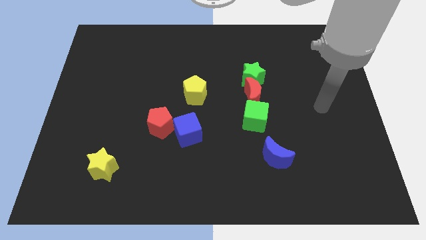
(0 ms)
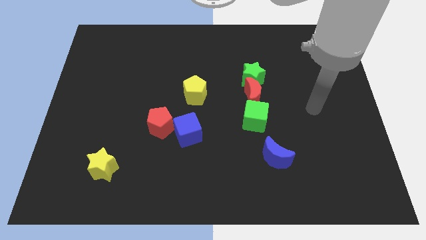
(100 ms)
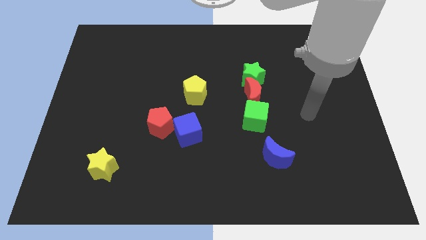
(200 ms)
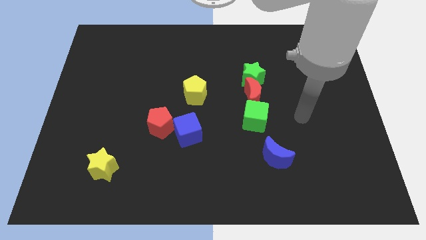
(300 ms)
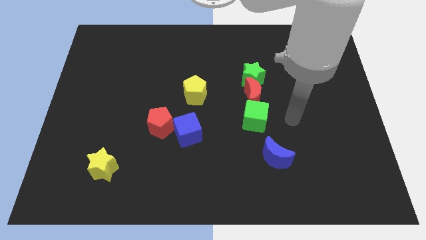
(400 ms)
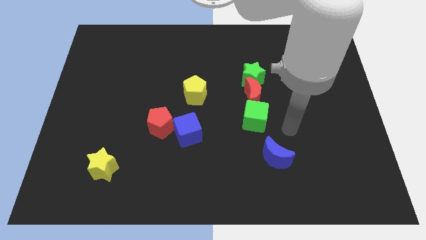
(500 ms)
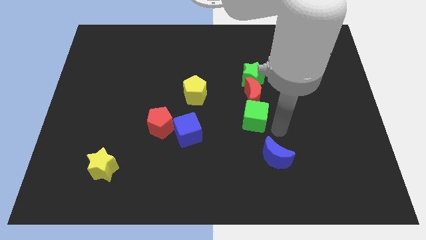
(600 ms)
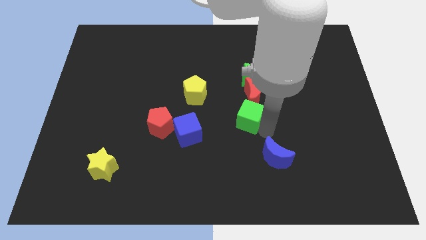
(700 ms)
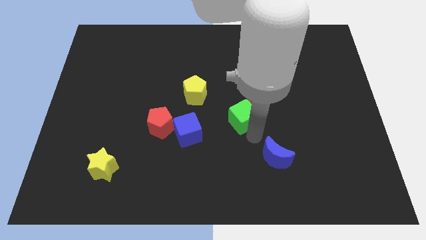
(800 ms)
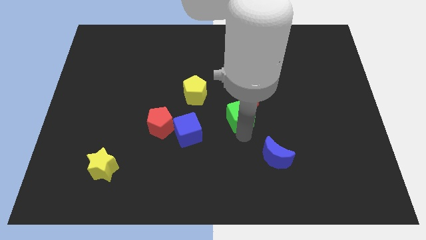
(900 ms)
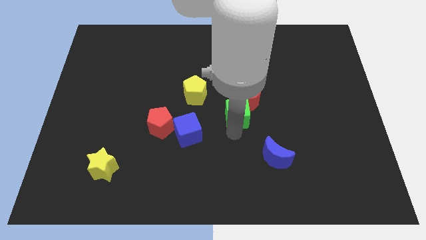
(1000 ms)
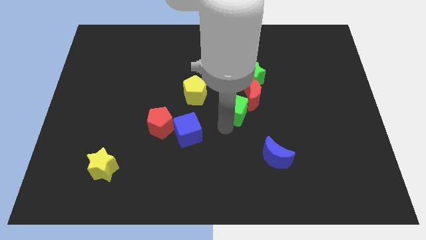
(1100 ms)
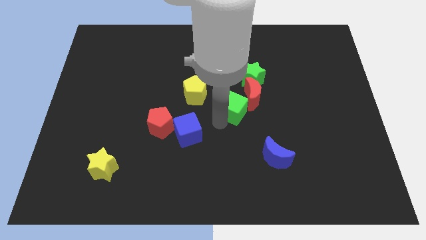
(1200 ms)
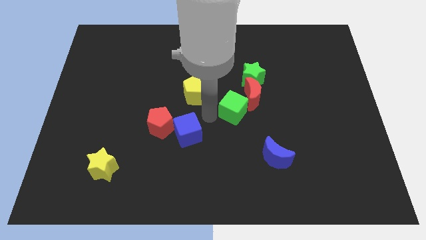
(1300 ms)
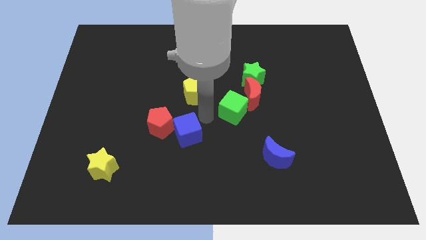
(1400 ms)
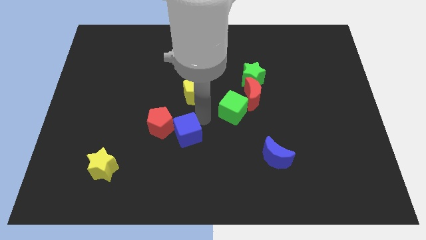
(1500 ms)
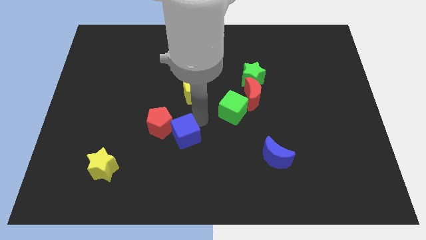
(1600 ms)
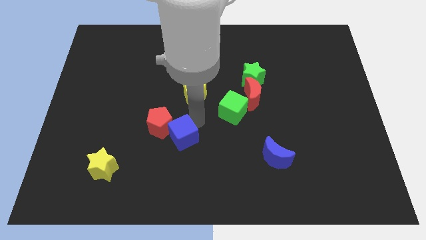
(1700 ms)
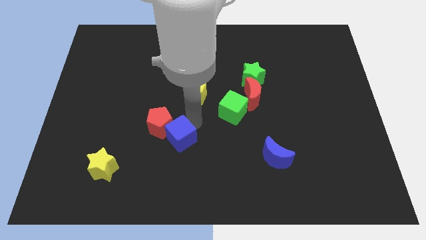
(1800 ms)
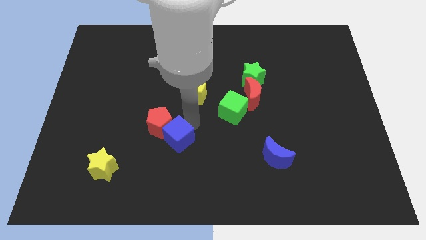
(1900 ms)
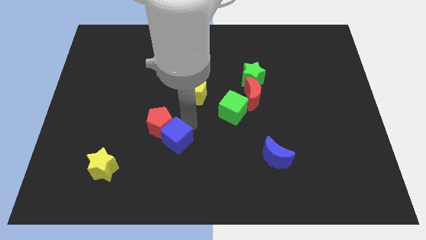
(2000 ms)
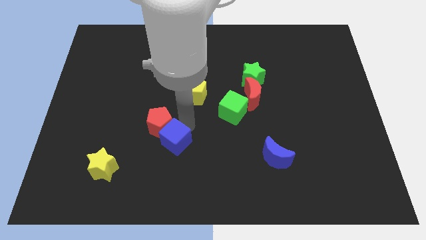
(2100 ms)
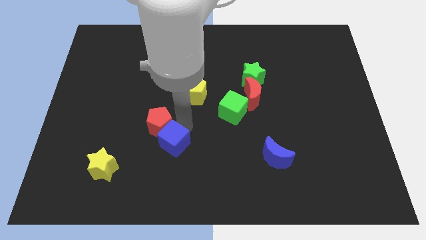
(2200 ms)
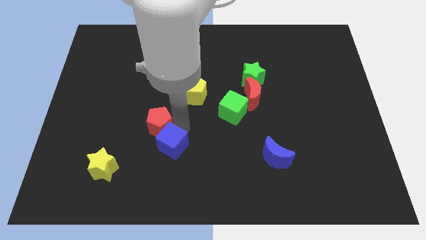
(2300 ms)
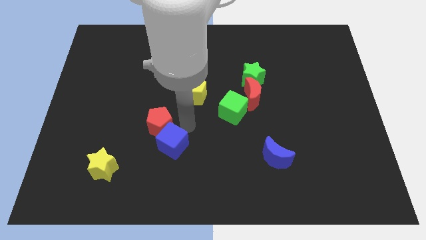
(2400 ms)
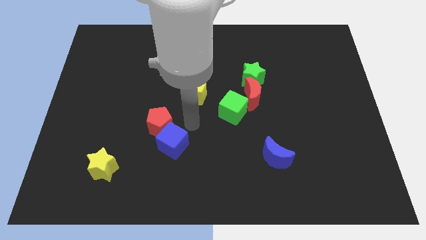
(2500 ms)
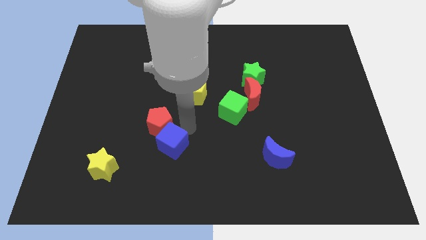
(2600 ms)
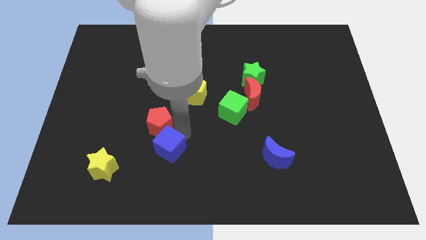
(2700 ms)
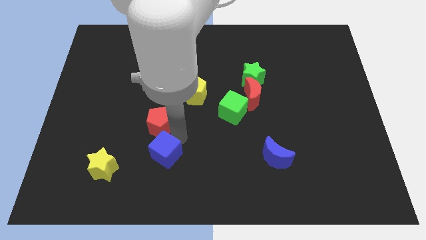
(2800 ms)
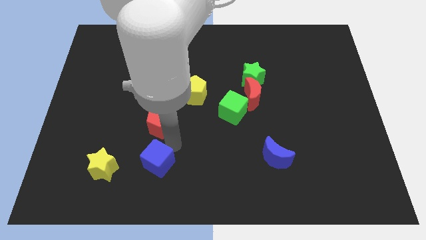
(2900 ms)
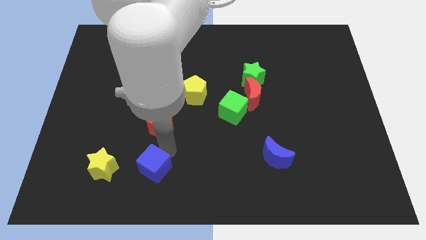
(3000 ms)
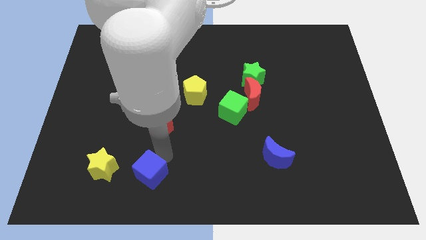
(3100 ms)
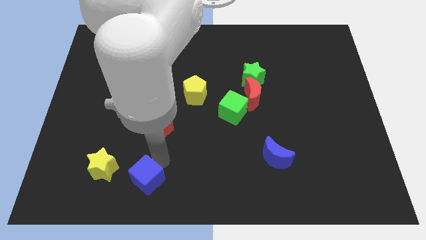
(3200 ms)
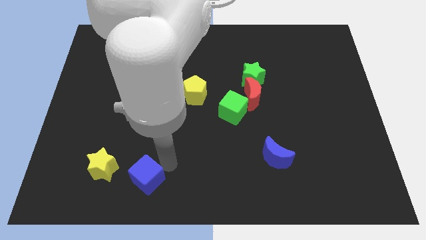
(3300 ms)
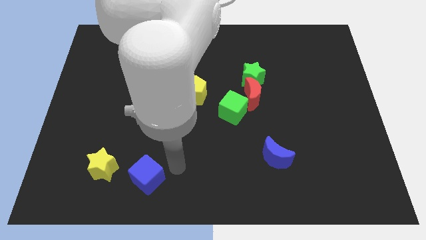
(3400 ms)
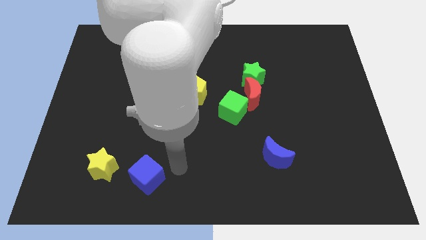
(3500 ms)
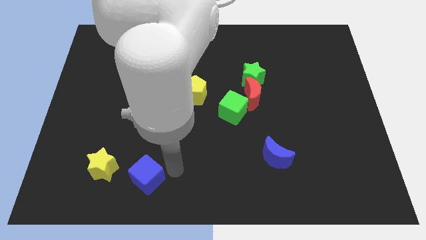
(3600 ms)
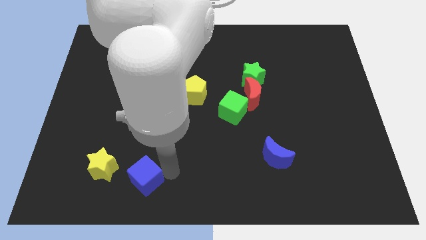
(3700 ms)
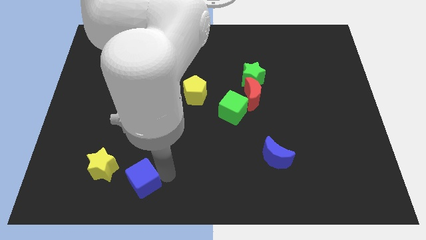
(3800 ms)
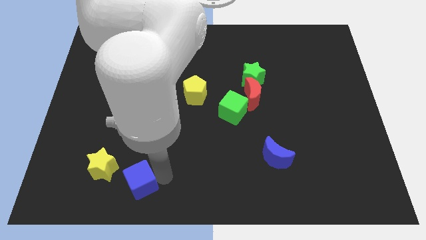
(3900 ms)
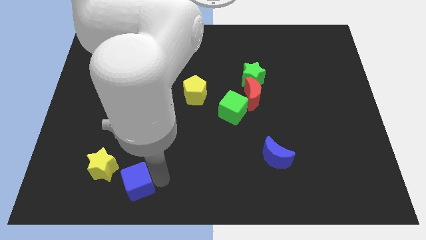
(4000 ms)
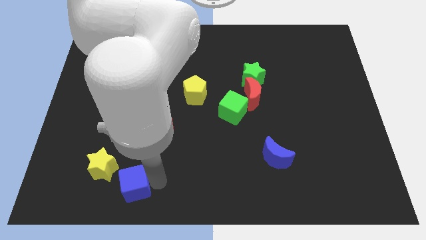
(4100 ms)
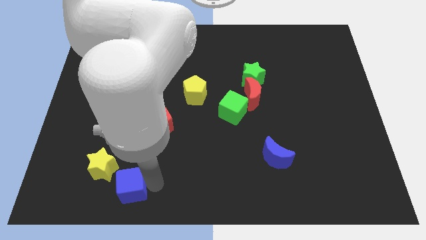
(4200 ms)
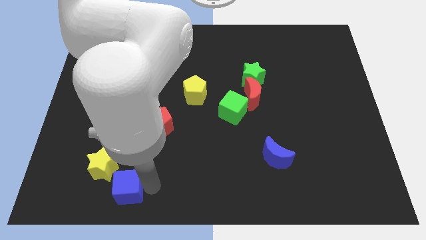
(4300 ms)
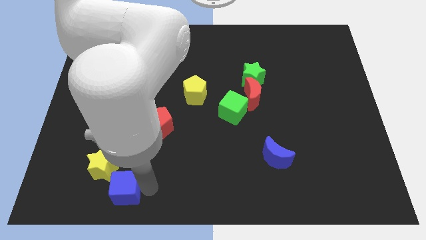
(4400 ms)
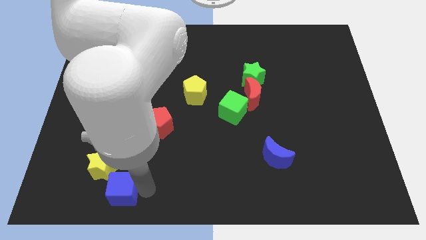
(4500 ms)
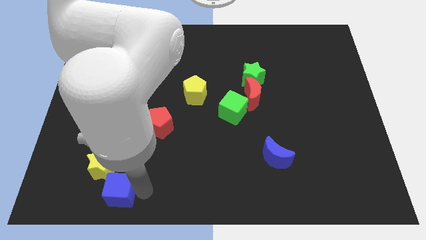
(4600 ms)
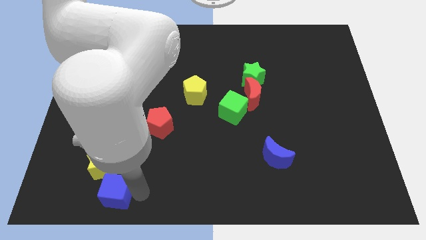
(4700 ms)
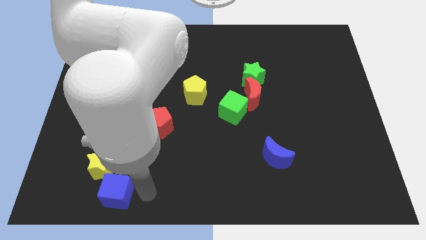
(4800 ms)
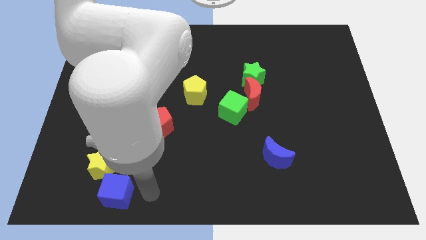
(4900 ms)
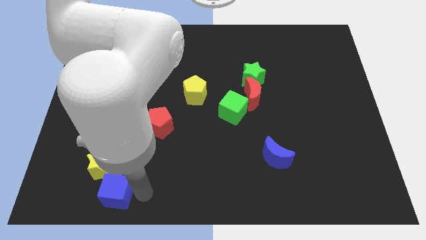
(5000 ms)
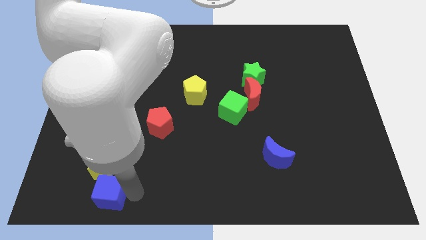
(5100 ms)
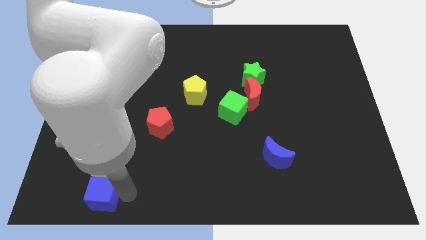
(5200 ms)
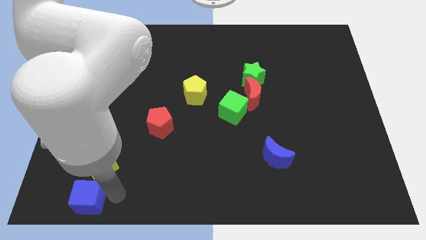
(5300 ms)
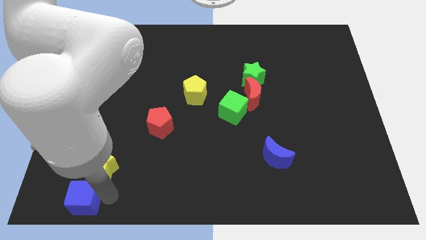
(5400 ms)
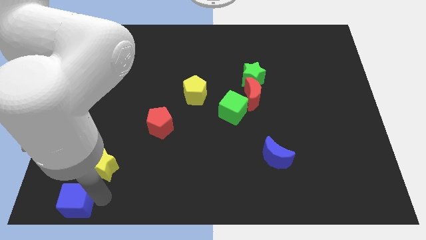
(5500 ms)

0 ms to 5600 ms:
slide the blue cube to the lower left corner

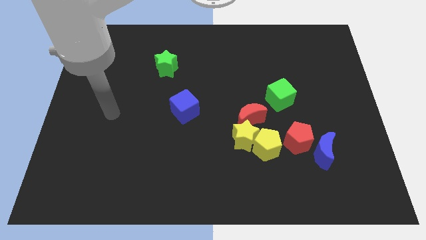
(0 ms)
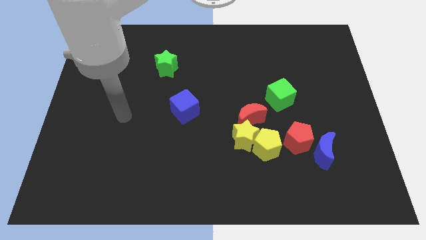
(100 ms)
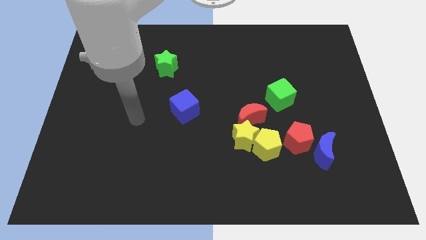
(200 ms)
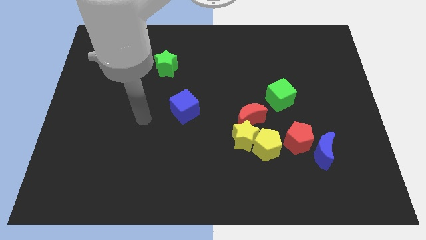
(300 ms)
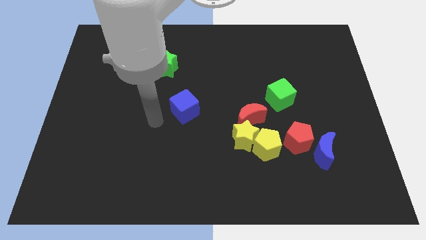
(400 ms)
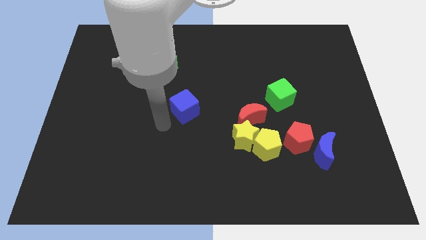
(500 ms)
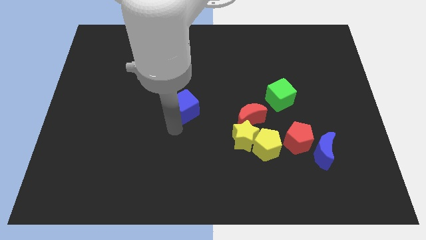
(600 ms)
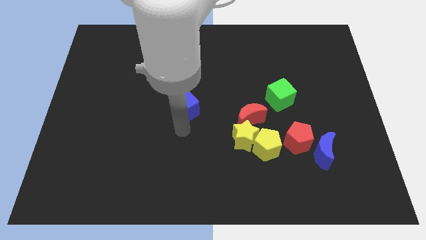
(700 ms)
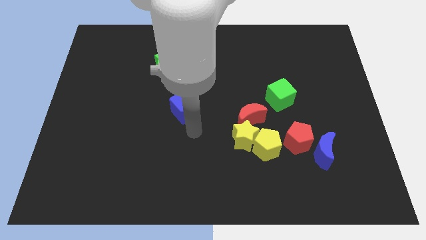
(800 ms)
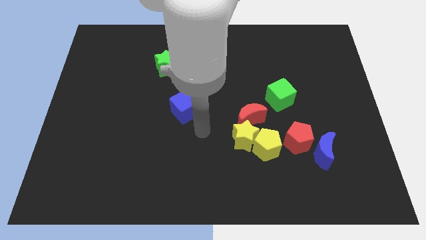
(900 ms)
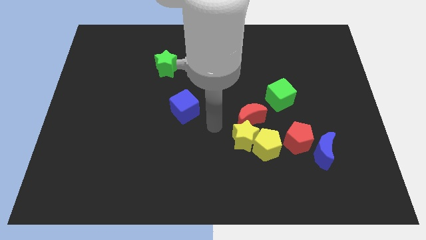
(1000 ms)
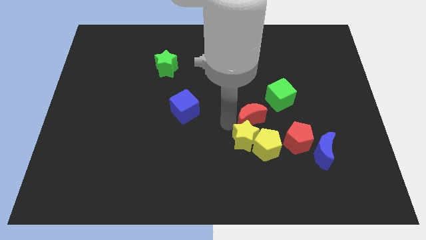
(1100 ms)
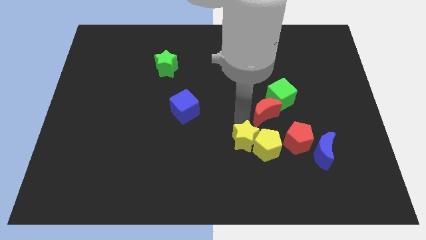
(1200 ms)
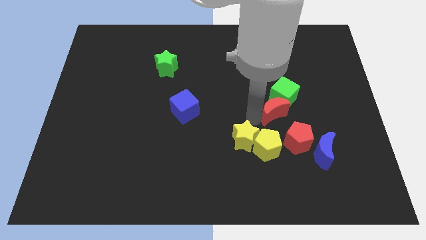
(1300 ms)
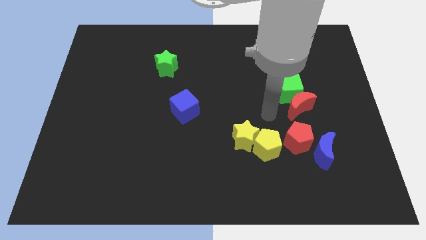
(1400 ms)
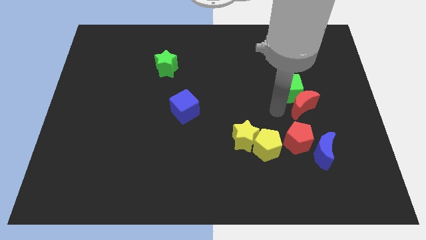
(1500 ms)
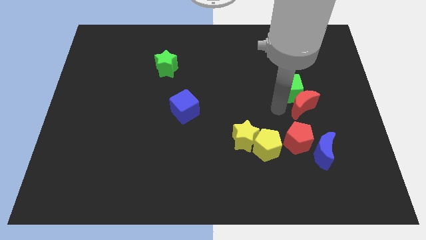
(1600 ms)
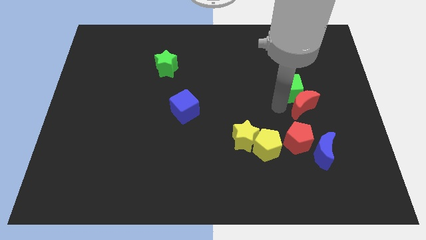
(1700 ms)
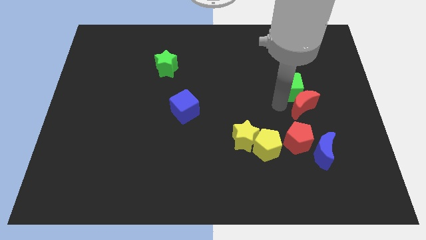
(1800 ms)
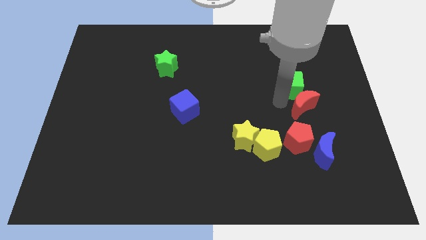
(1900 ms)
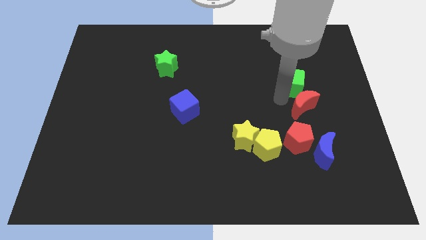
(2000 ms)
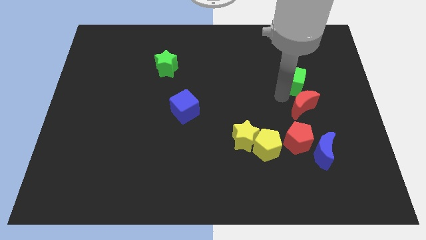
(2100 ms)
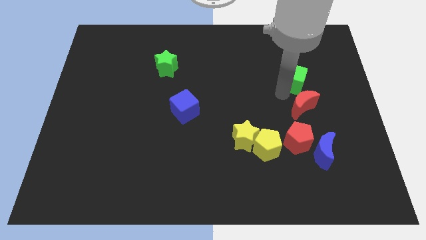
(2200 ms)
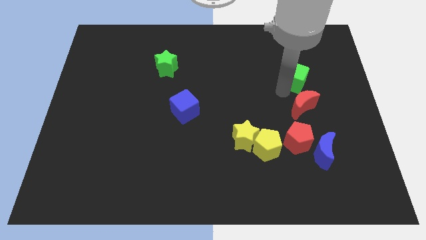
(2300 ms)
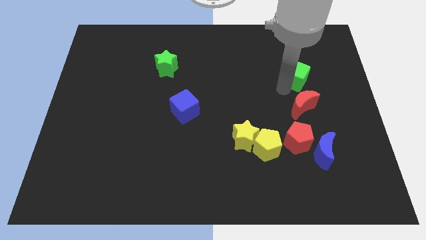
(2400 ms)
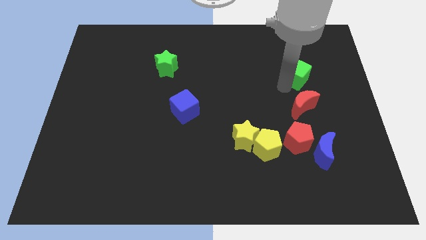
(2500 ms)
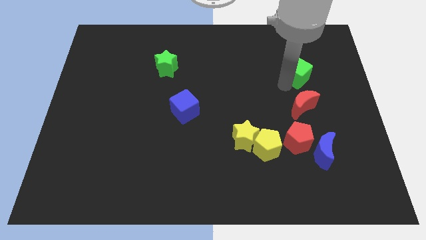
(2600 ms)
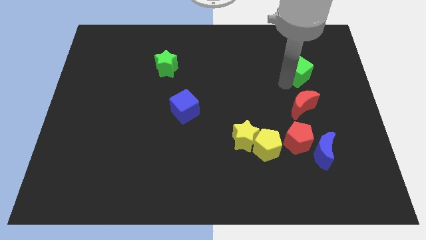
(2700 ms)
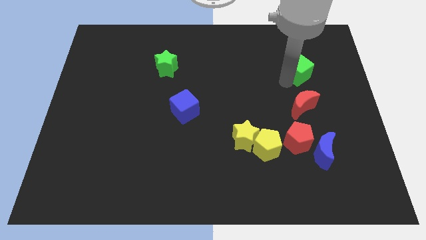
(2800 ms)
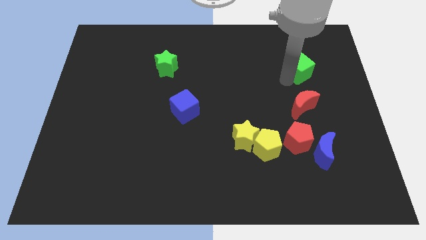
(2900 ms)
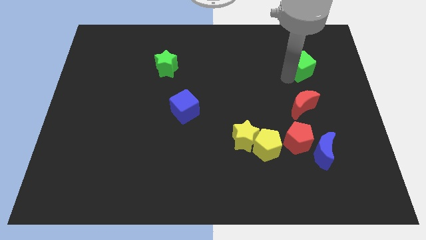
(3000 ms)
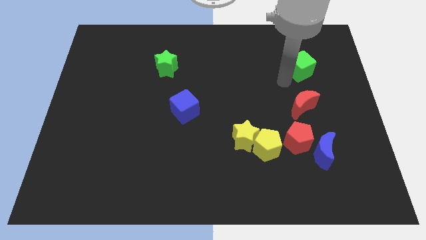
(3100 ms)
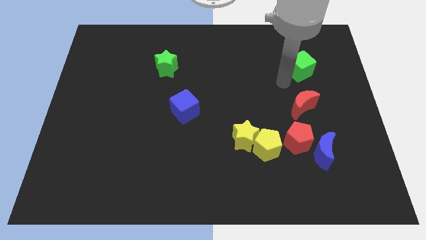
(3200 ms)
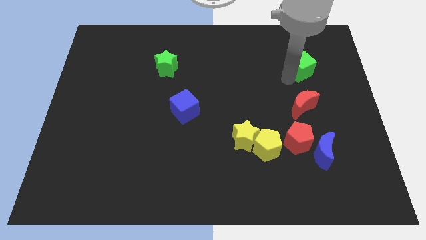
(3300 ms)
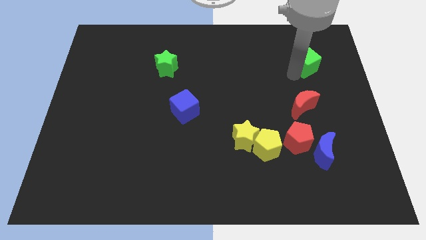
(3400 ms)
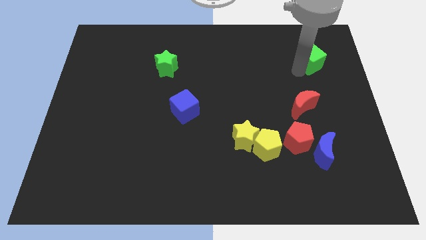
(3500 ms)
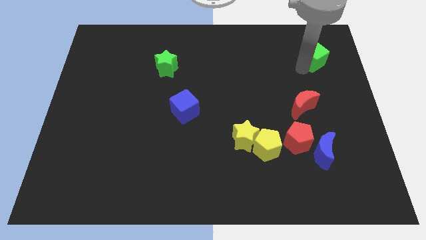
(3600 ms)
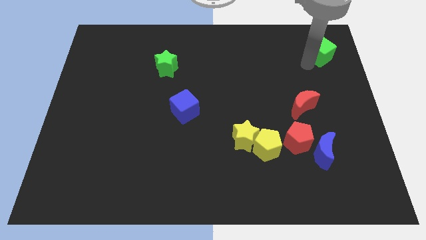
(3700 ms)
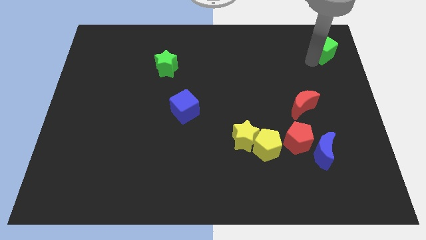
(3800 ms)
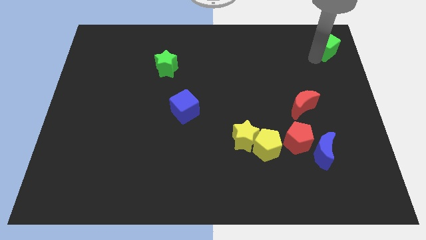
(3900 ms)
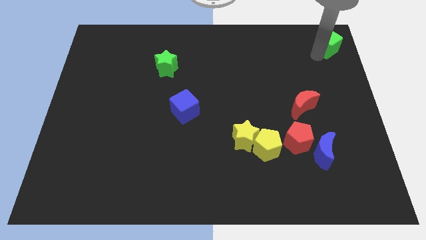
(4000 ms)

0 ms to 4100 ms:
push the green cube to the top right corner
